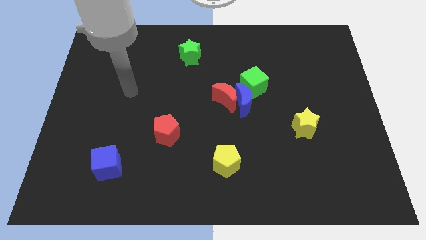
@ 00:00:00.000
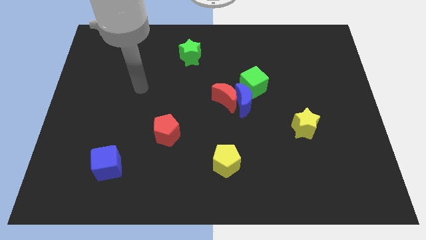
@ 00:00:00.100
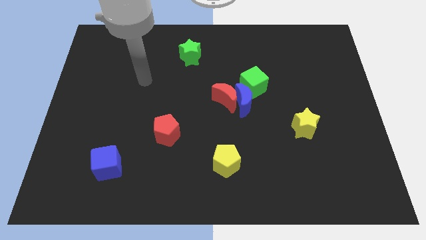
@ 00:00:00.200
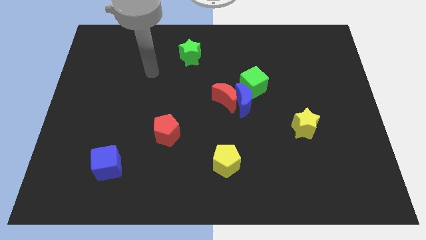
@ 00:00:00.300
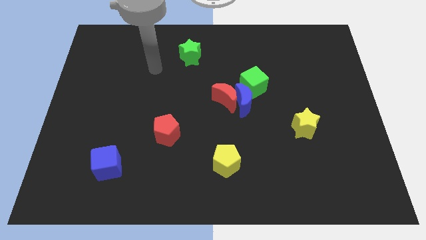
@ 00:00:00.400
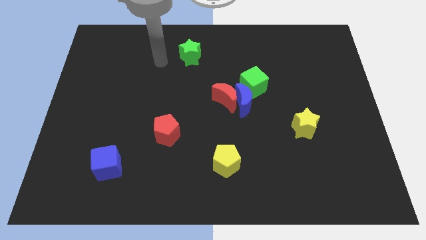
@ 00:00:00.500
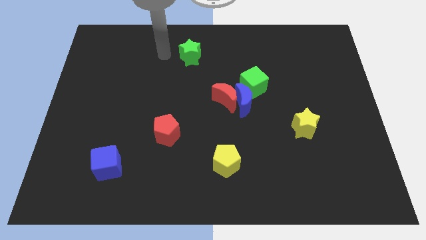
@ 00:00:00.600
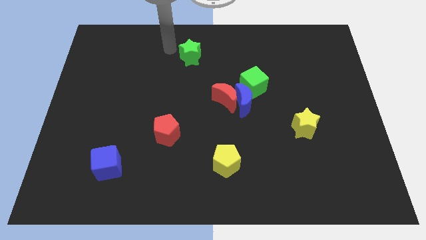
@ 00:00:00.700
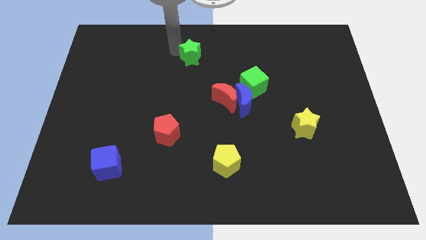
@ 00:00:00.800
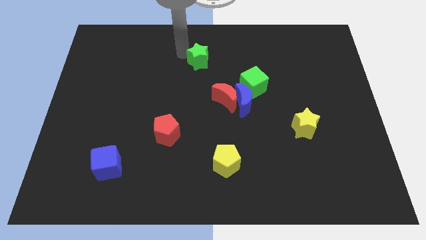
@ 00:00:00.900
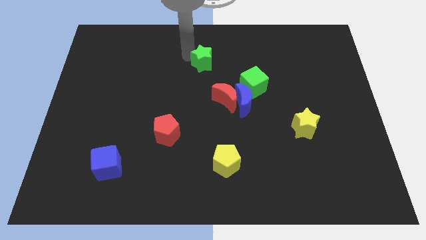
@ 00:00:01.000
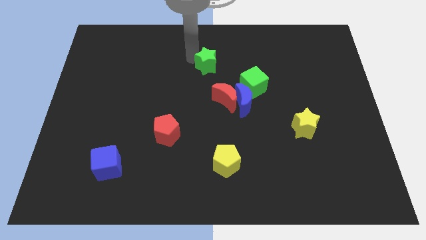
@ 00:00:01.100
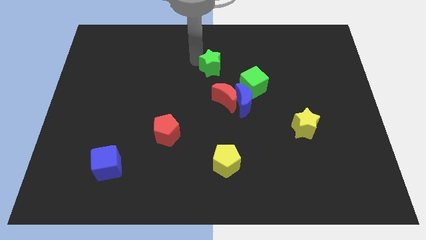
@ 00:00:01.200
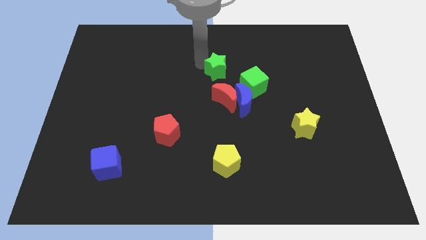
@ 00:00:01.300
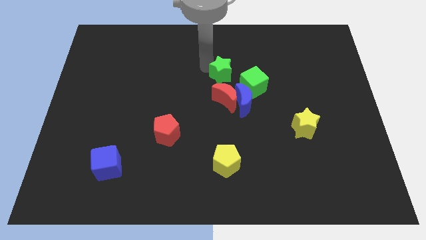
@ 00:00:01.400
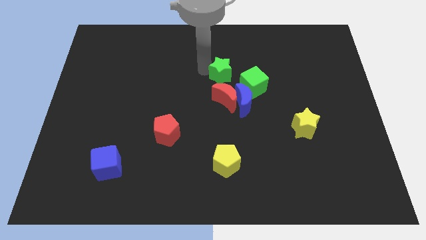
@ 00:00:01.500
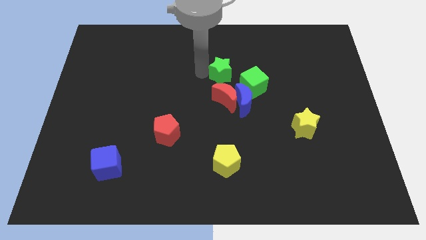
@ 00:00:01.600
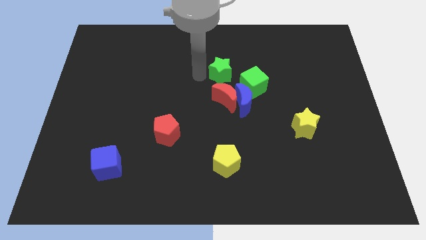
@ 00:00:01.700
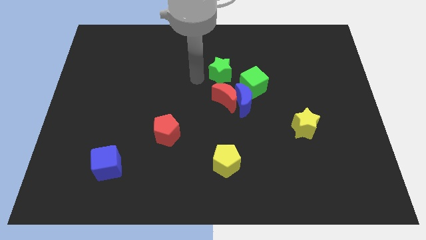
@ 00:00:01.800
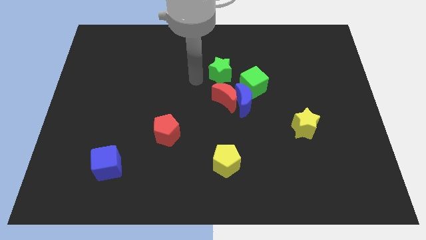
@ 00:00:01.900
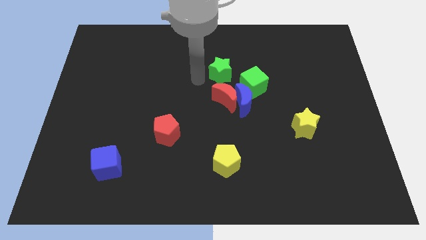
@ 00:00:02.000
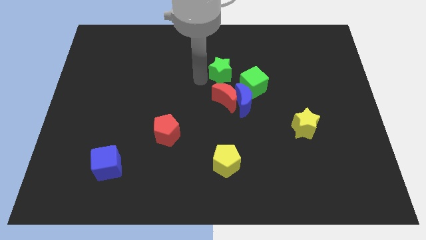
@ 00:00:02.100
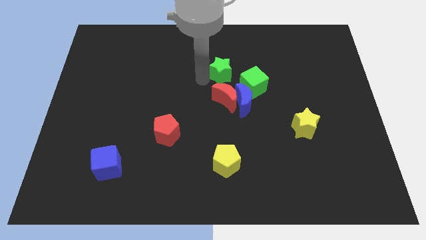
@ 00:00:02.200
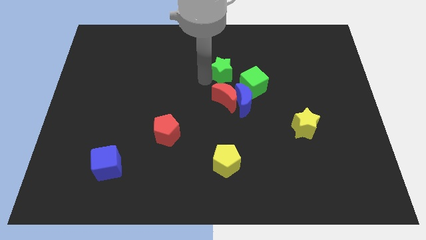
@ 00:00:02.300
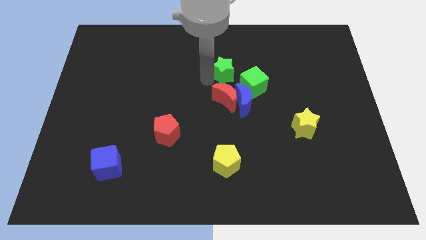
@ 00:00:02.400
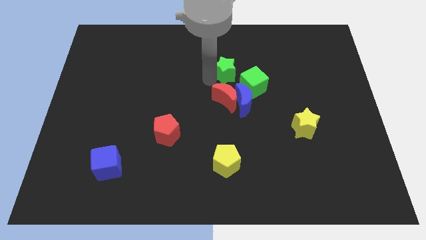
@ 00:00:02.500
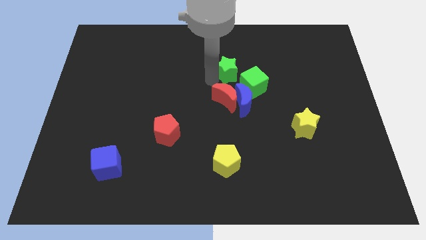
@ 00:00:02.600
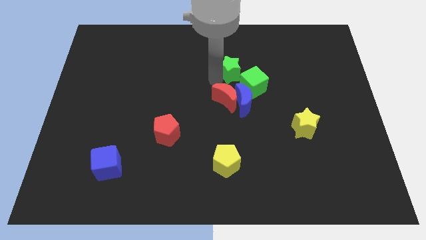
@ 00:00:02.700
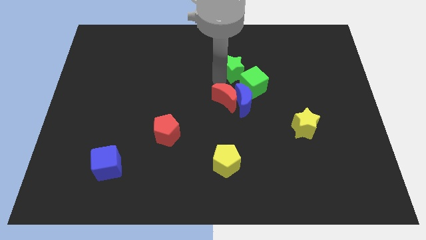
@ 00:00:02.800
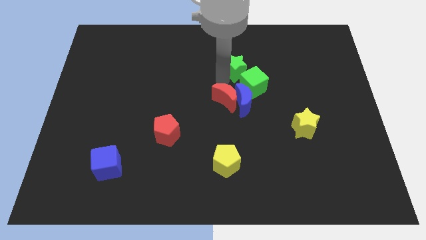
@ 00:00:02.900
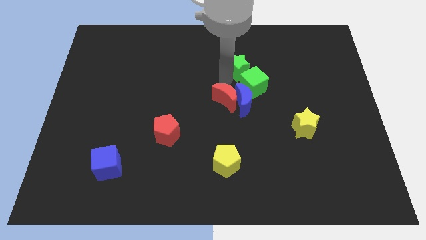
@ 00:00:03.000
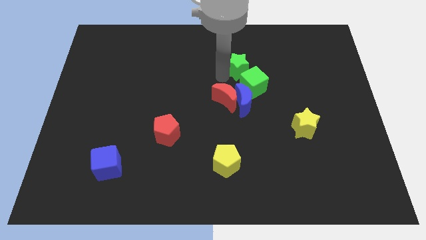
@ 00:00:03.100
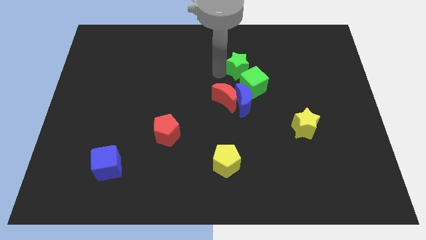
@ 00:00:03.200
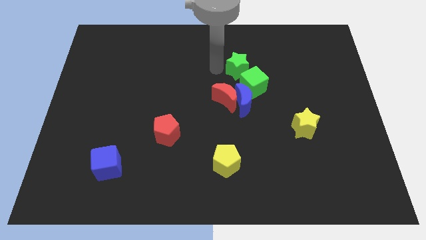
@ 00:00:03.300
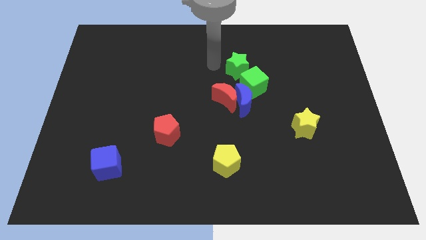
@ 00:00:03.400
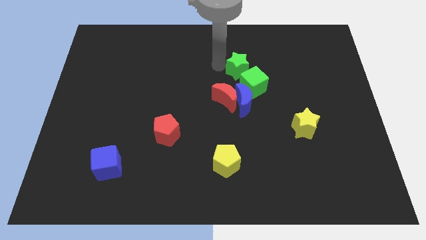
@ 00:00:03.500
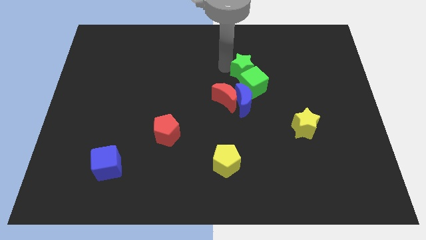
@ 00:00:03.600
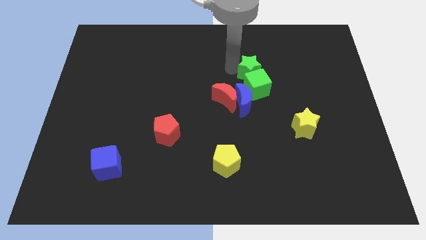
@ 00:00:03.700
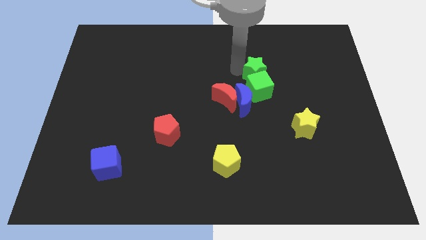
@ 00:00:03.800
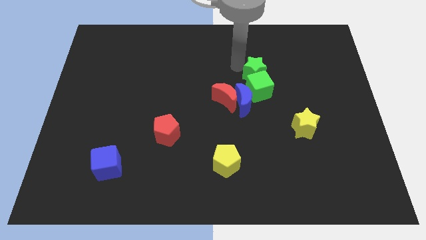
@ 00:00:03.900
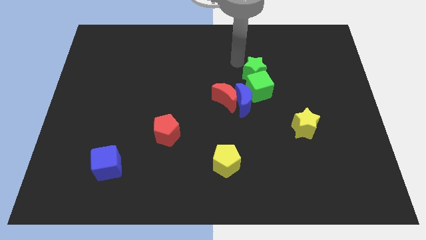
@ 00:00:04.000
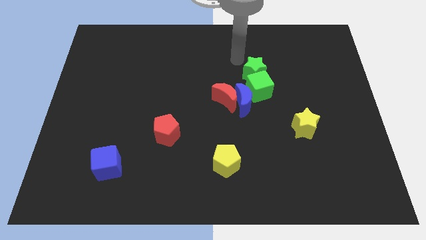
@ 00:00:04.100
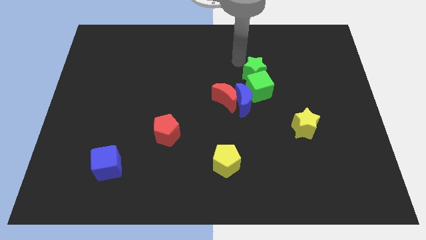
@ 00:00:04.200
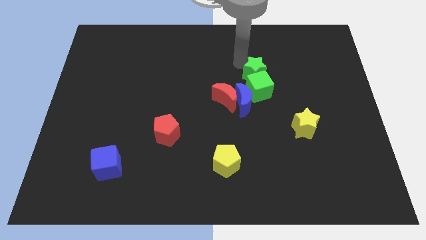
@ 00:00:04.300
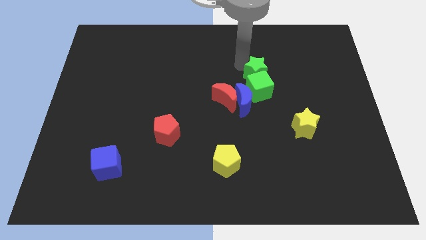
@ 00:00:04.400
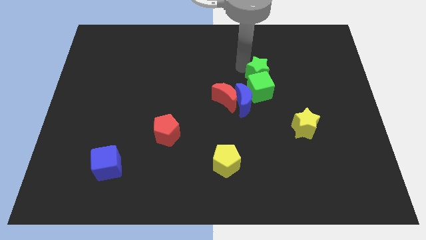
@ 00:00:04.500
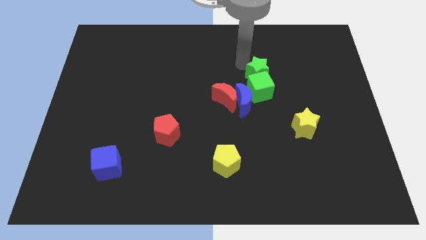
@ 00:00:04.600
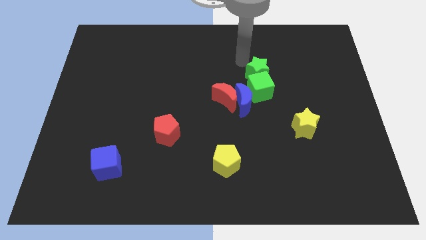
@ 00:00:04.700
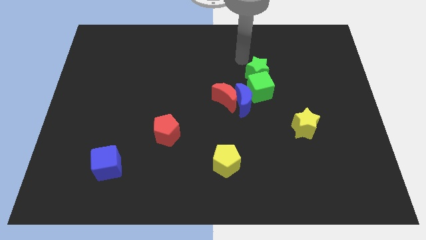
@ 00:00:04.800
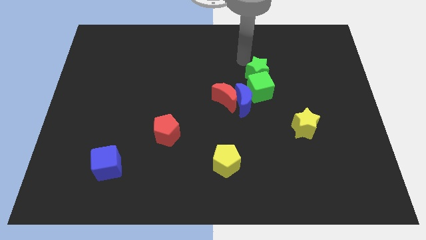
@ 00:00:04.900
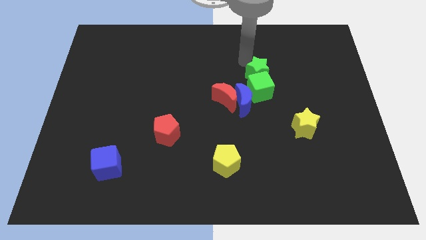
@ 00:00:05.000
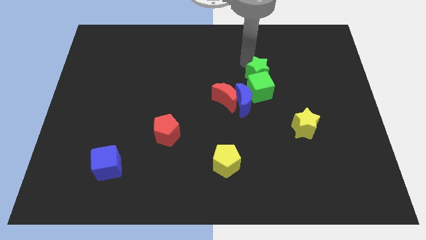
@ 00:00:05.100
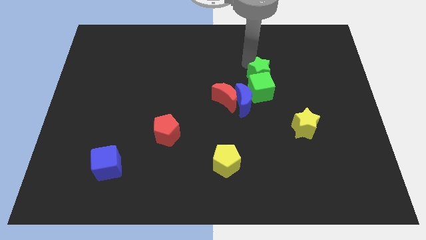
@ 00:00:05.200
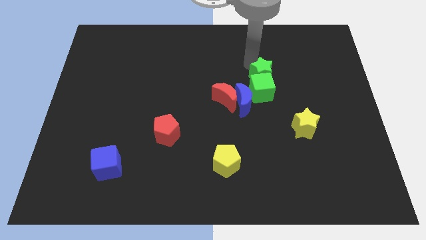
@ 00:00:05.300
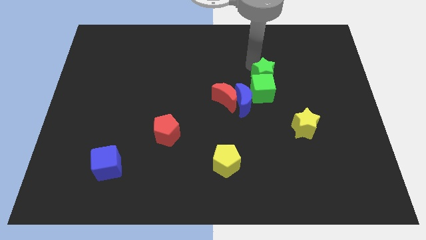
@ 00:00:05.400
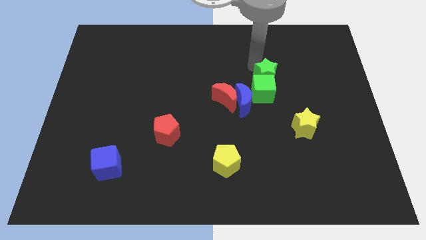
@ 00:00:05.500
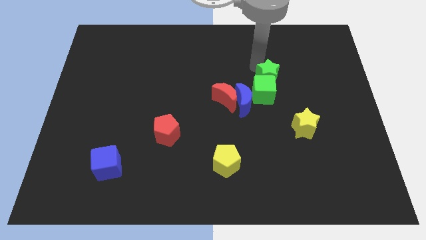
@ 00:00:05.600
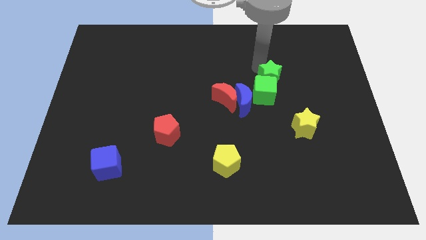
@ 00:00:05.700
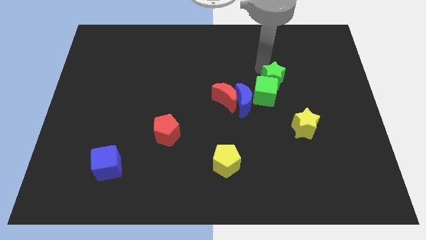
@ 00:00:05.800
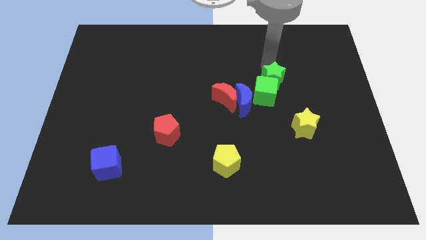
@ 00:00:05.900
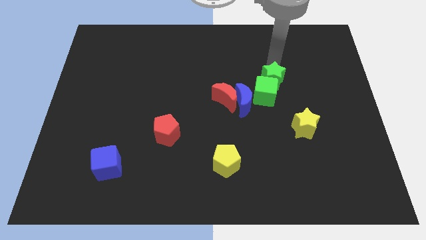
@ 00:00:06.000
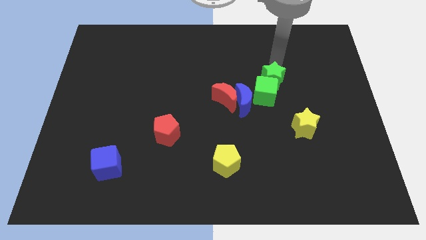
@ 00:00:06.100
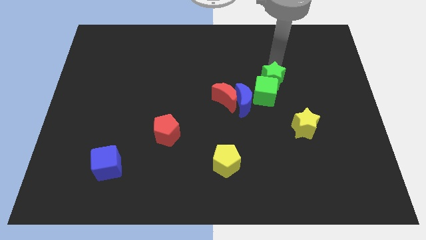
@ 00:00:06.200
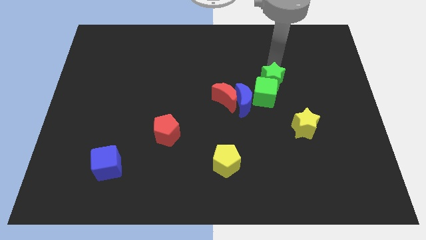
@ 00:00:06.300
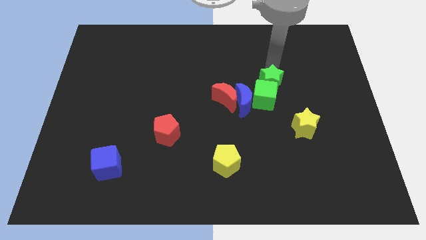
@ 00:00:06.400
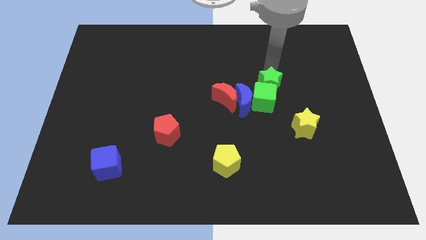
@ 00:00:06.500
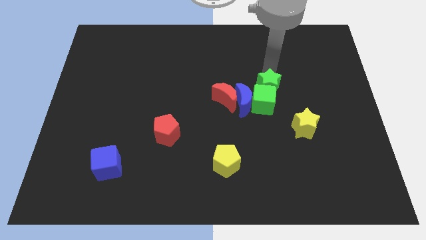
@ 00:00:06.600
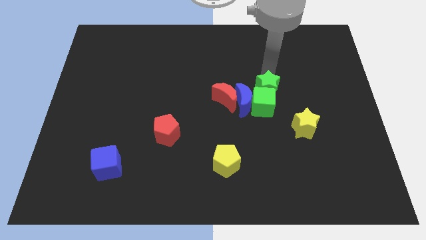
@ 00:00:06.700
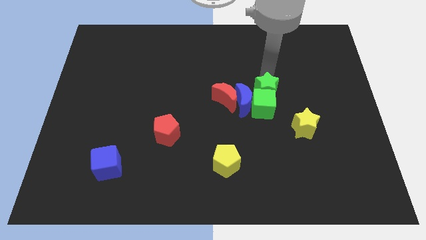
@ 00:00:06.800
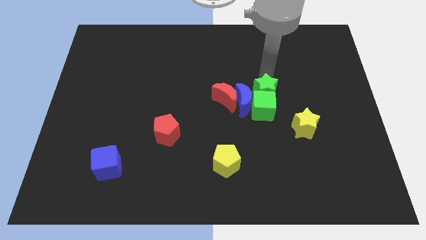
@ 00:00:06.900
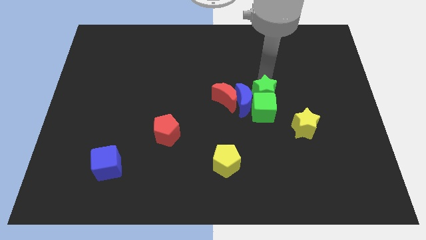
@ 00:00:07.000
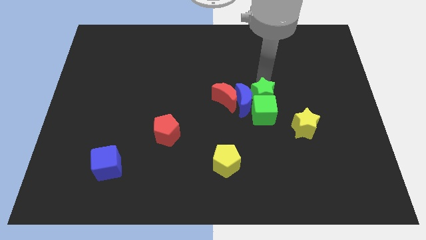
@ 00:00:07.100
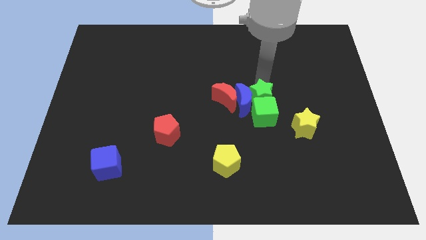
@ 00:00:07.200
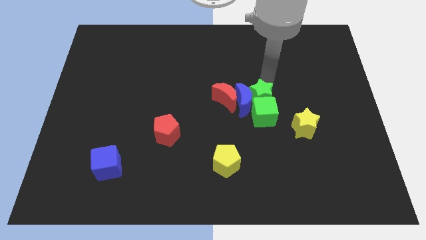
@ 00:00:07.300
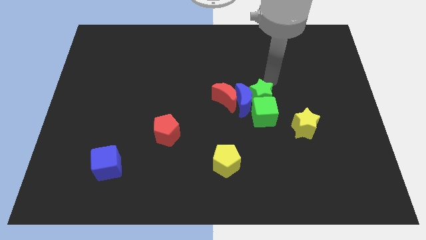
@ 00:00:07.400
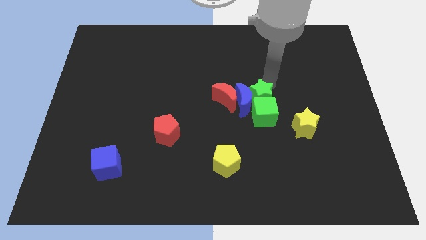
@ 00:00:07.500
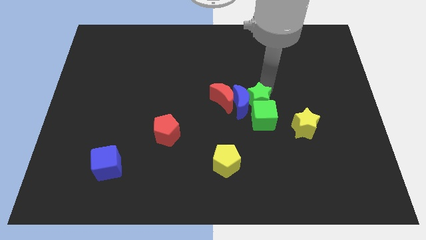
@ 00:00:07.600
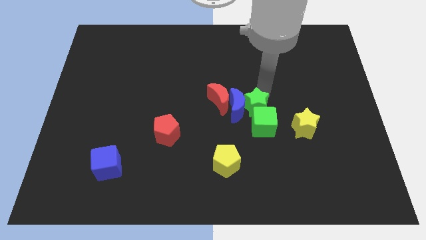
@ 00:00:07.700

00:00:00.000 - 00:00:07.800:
push the green star to the bottom right of the red moon
